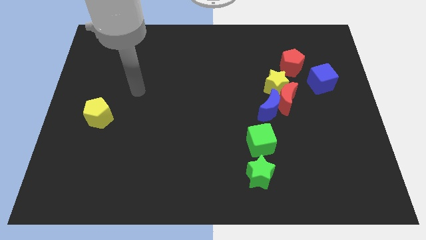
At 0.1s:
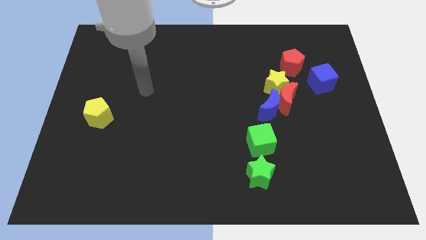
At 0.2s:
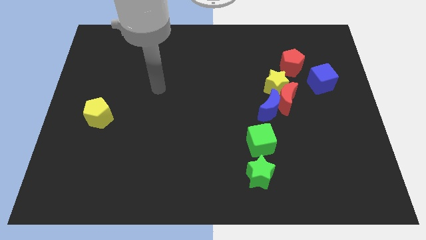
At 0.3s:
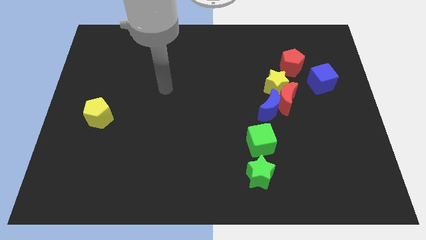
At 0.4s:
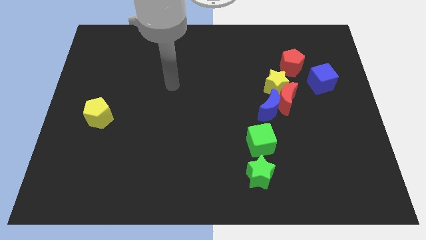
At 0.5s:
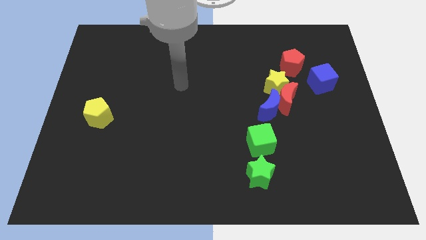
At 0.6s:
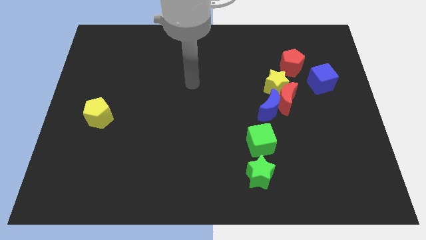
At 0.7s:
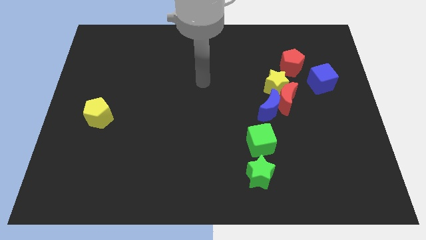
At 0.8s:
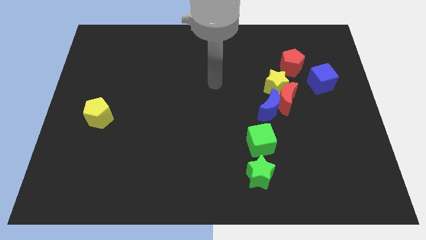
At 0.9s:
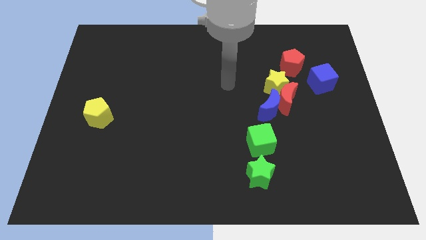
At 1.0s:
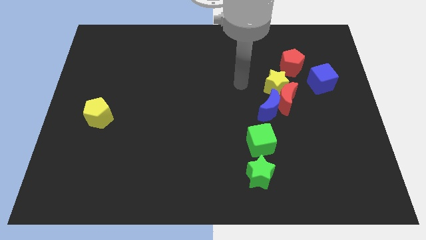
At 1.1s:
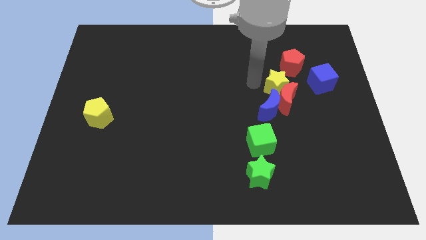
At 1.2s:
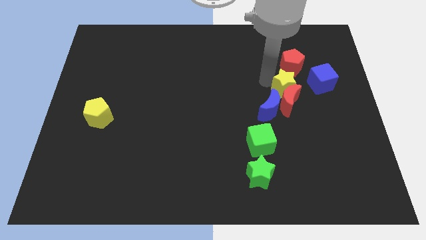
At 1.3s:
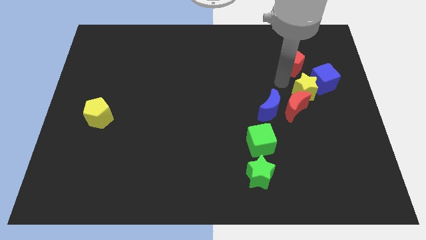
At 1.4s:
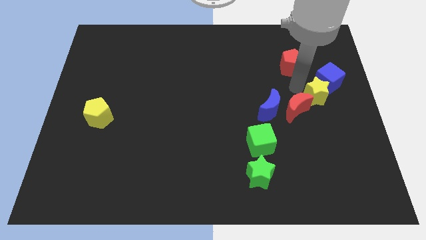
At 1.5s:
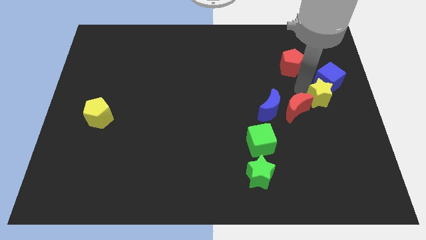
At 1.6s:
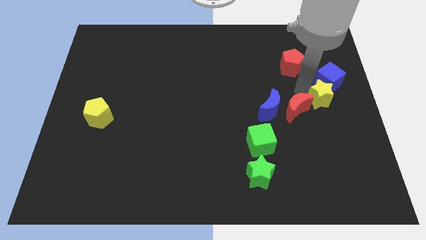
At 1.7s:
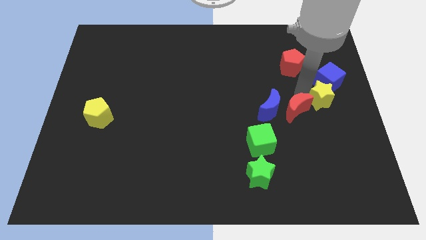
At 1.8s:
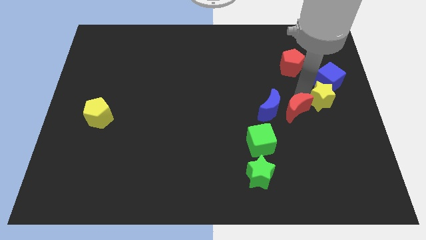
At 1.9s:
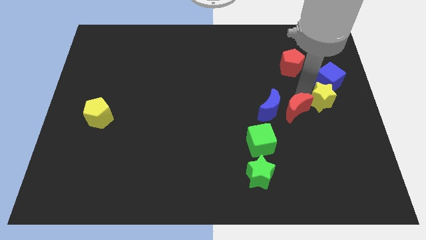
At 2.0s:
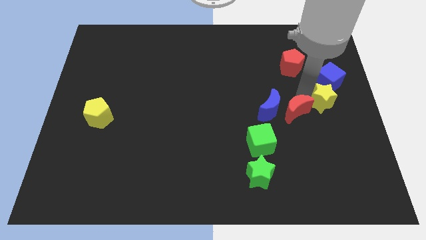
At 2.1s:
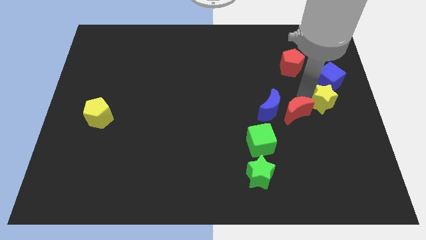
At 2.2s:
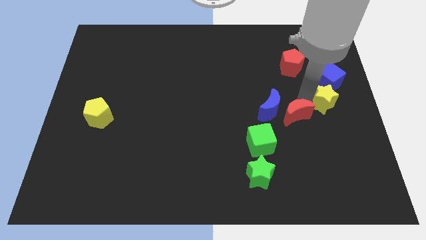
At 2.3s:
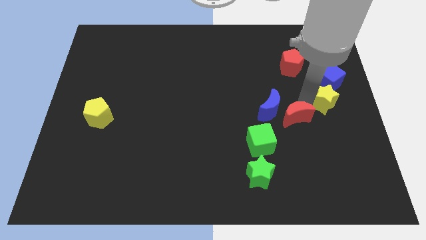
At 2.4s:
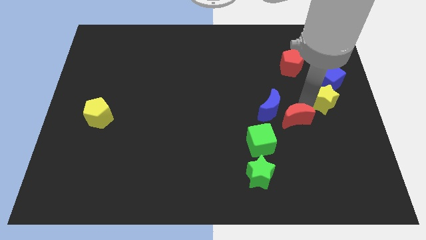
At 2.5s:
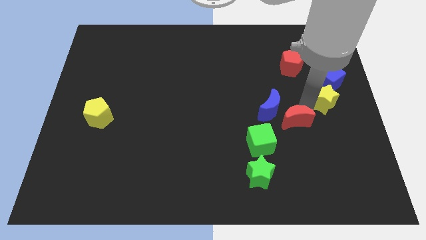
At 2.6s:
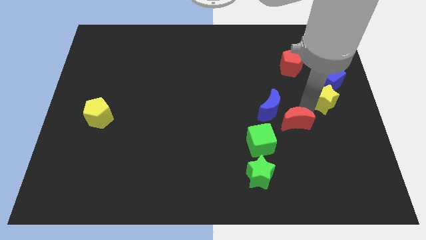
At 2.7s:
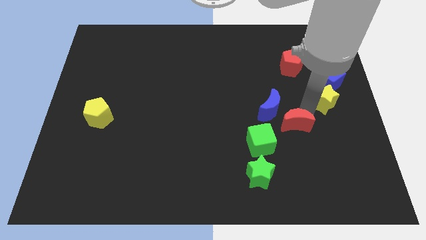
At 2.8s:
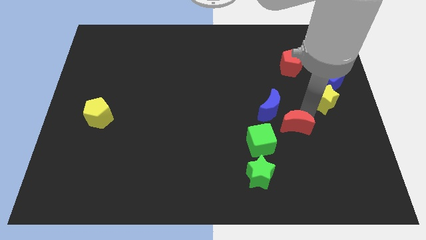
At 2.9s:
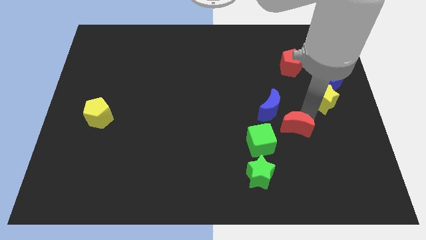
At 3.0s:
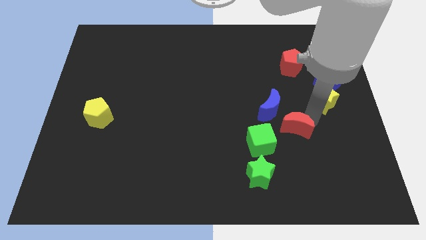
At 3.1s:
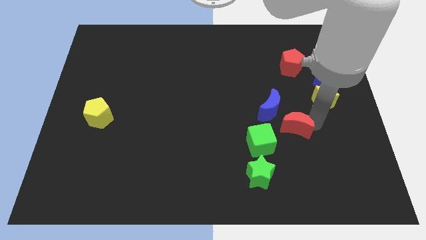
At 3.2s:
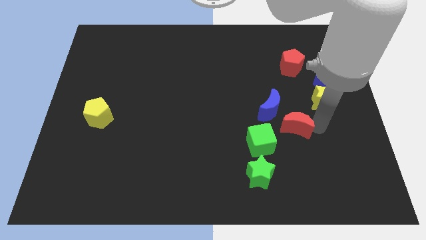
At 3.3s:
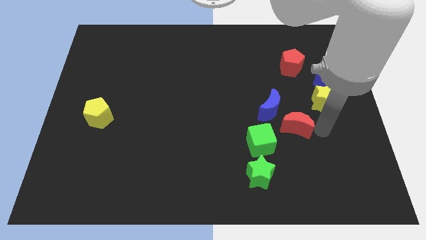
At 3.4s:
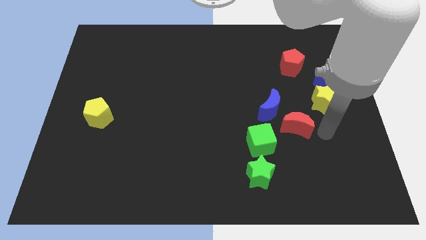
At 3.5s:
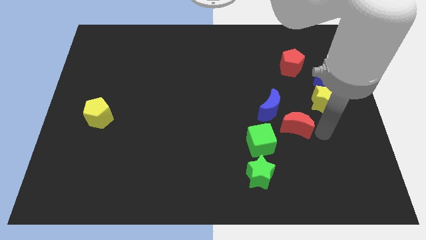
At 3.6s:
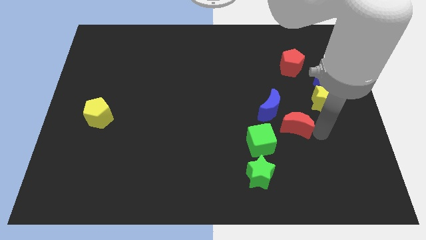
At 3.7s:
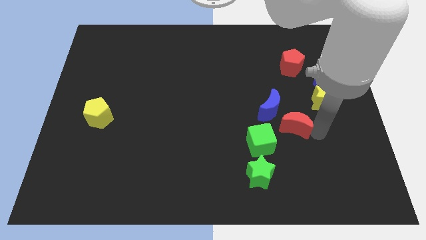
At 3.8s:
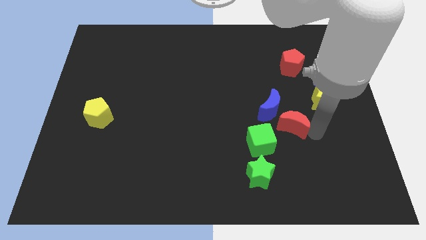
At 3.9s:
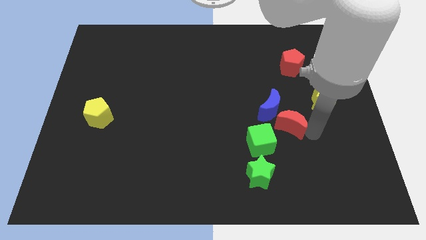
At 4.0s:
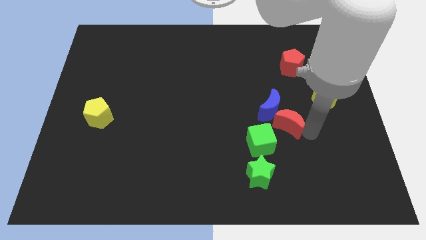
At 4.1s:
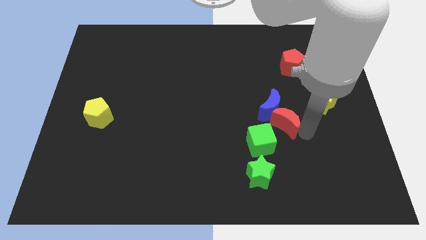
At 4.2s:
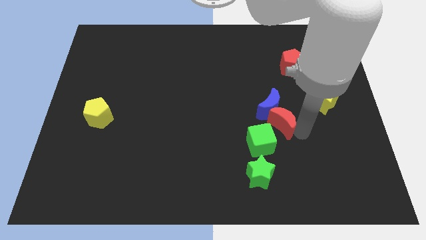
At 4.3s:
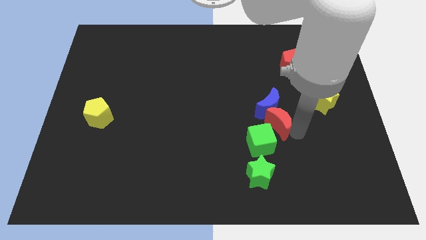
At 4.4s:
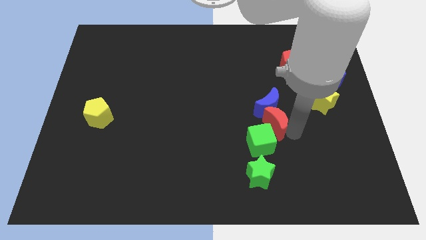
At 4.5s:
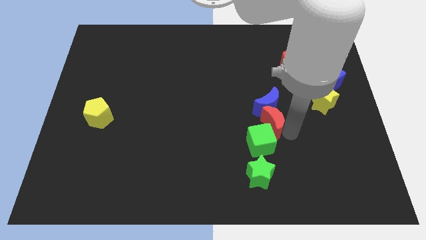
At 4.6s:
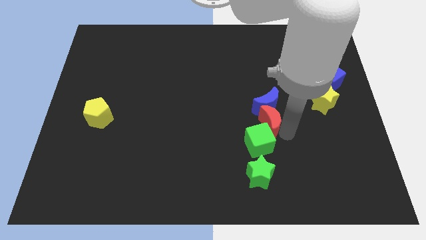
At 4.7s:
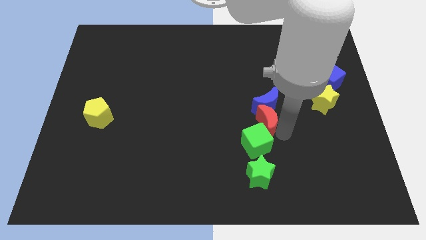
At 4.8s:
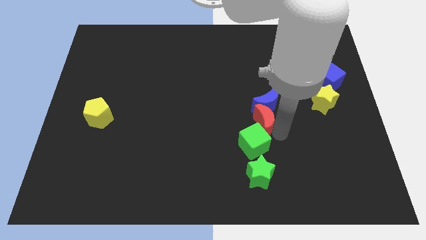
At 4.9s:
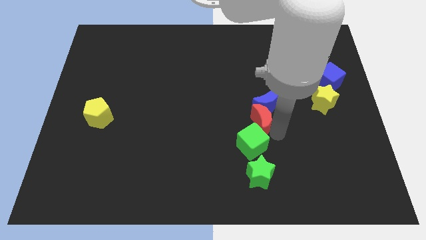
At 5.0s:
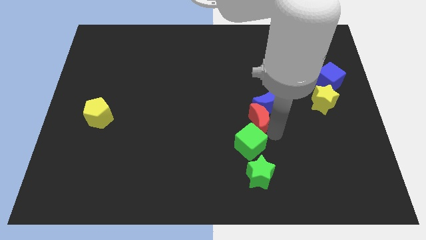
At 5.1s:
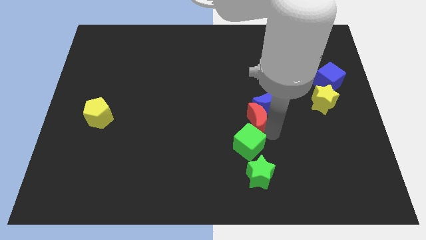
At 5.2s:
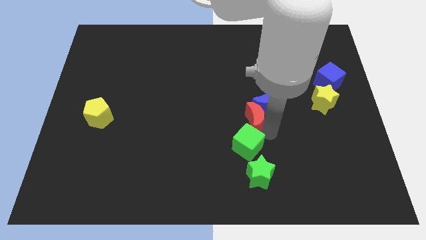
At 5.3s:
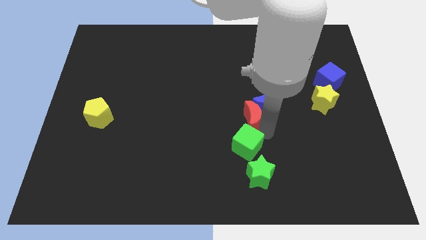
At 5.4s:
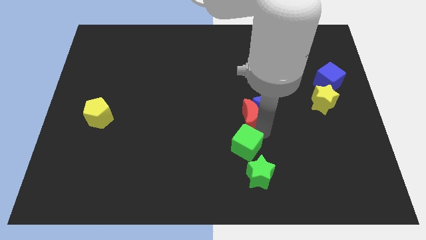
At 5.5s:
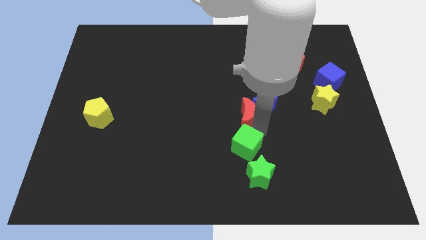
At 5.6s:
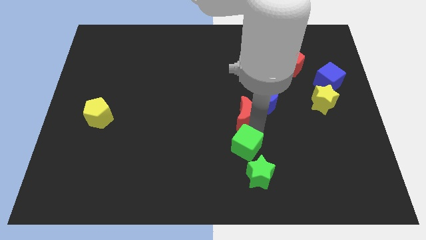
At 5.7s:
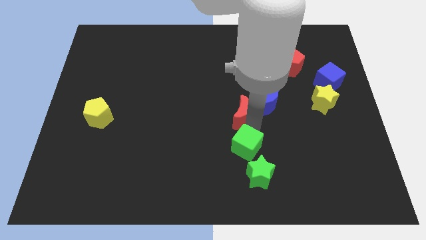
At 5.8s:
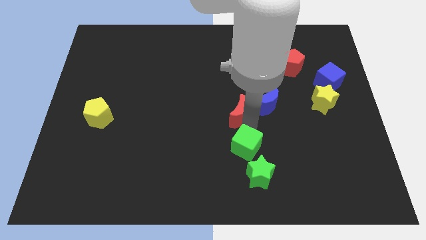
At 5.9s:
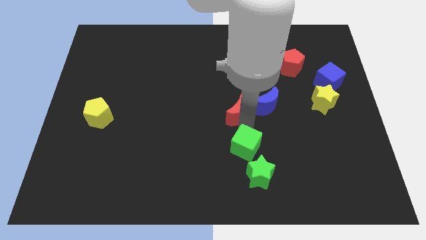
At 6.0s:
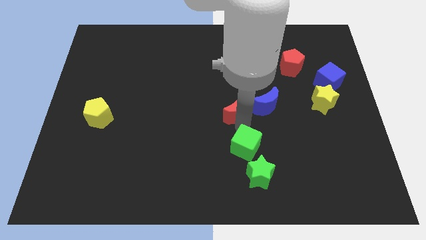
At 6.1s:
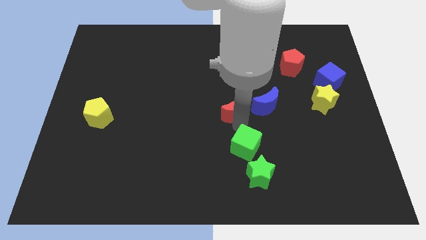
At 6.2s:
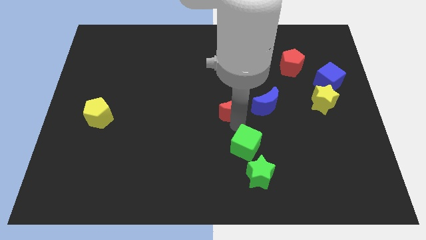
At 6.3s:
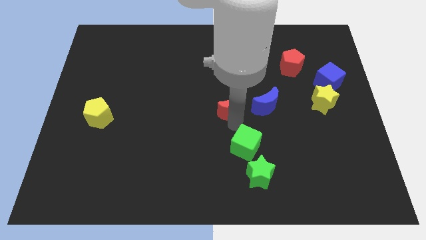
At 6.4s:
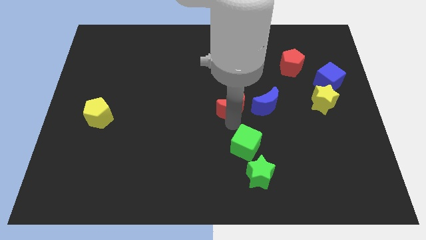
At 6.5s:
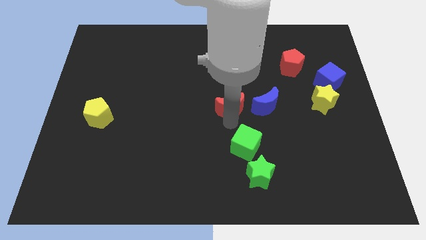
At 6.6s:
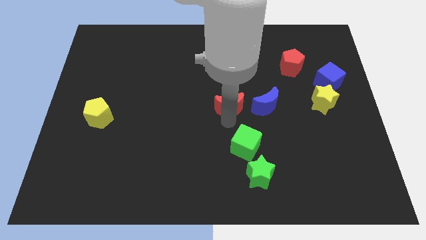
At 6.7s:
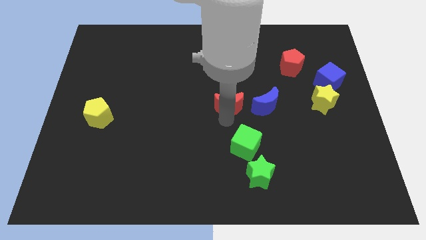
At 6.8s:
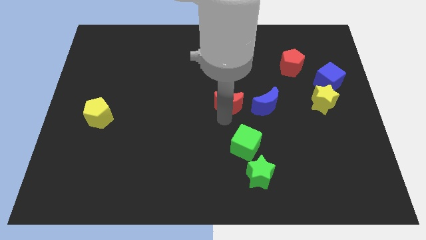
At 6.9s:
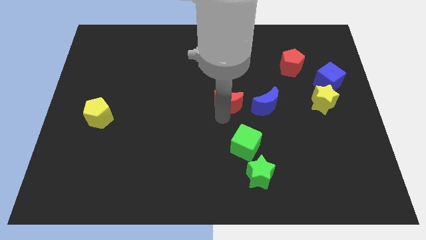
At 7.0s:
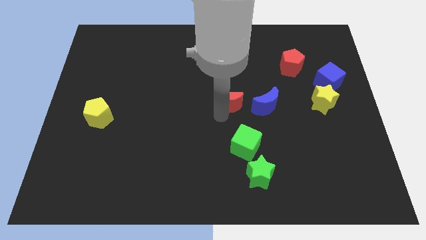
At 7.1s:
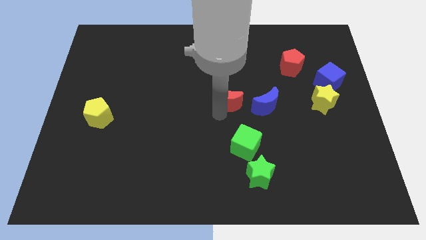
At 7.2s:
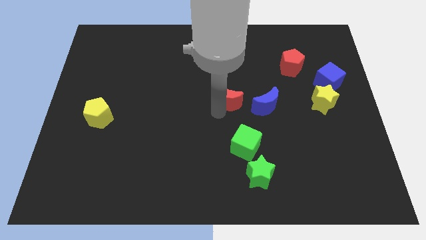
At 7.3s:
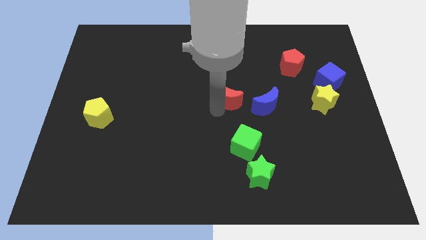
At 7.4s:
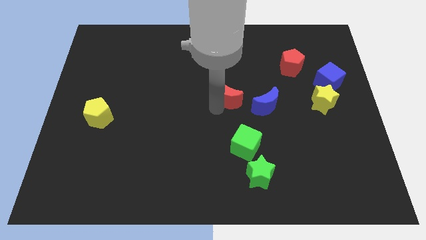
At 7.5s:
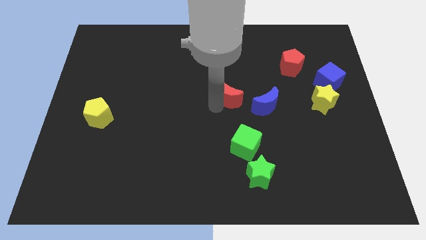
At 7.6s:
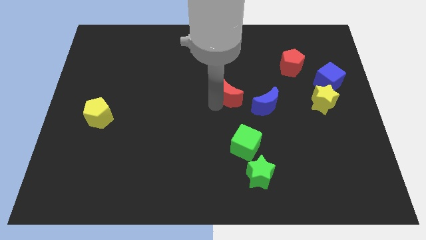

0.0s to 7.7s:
slide the red moon upwards and left diagonally somewhat

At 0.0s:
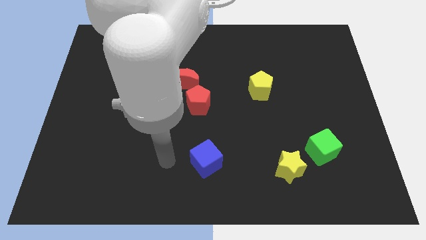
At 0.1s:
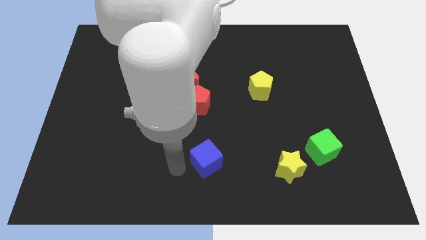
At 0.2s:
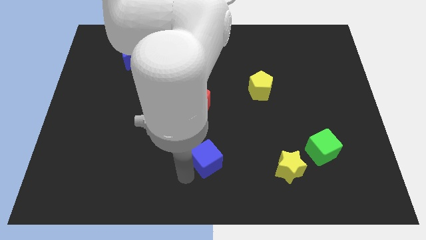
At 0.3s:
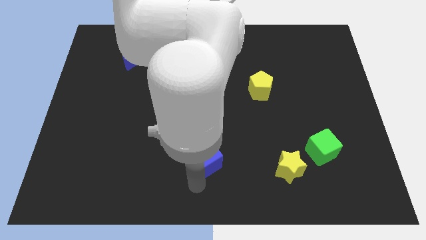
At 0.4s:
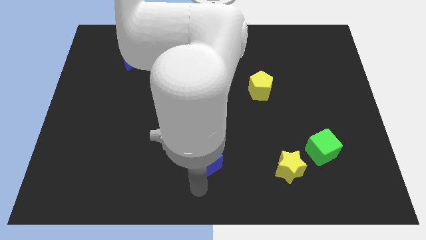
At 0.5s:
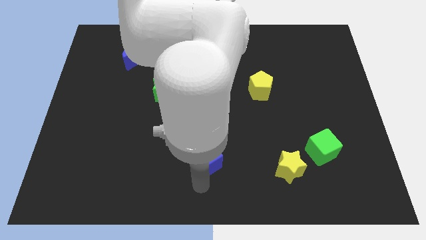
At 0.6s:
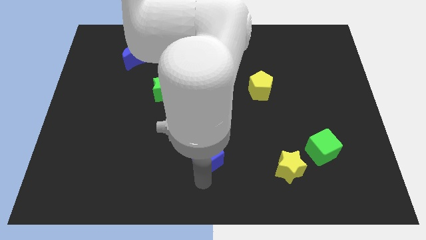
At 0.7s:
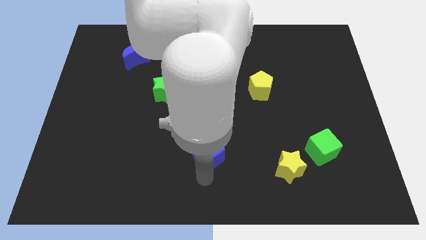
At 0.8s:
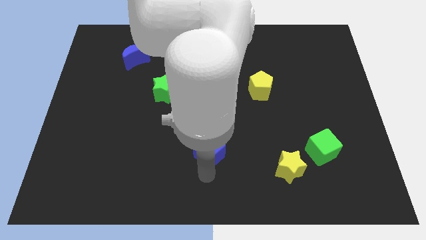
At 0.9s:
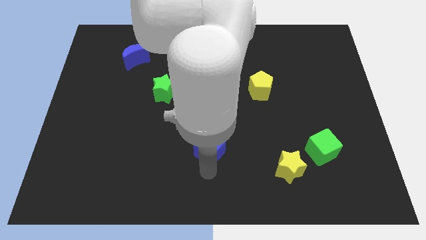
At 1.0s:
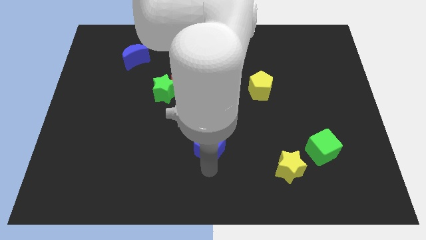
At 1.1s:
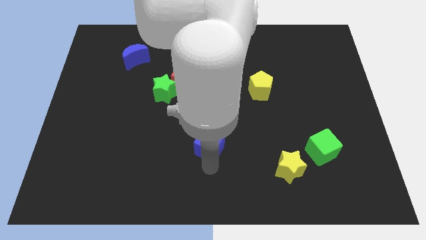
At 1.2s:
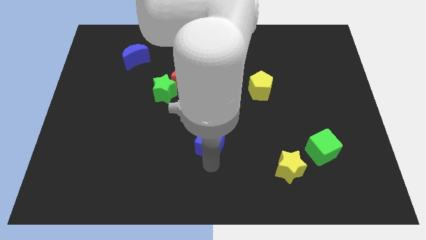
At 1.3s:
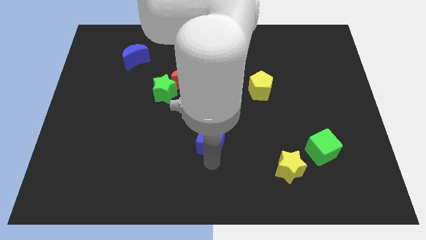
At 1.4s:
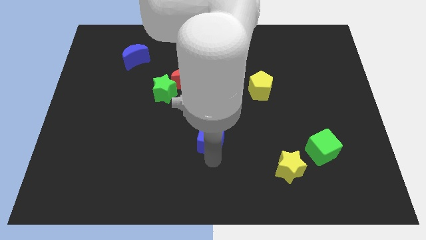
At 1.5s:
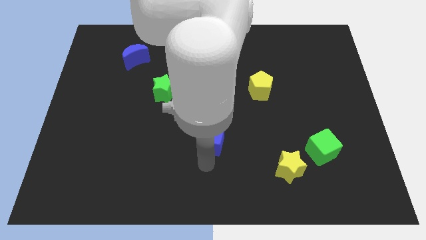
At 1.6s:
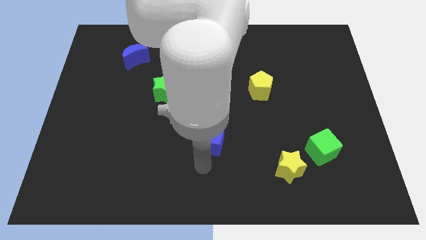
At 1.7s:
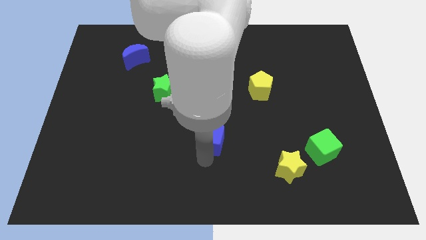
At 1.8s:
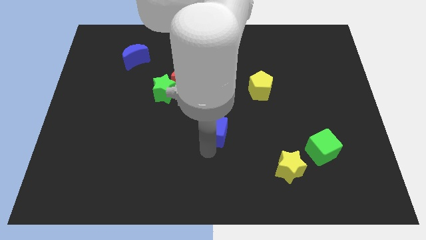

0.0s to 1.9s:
slide the blue cube a little up
